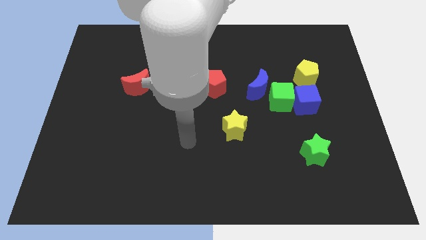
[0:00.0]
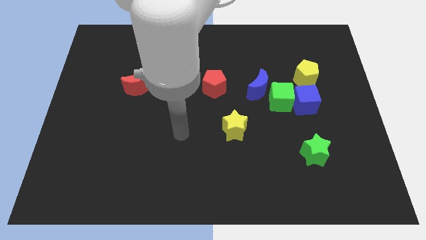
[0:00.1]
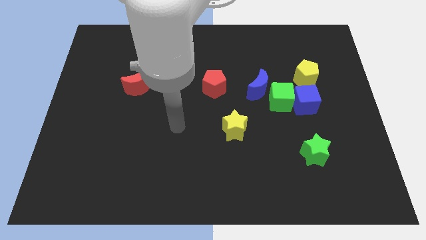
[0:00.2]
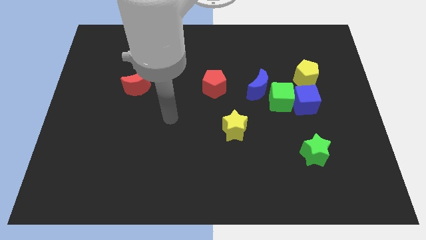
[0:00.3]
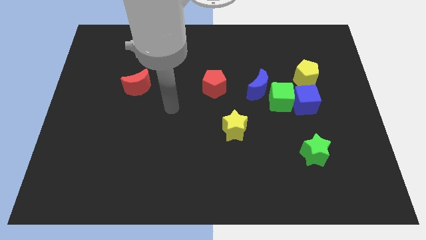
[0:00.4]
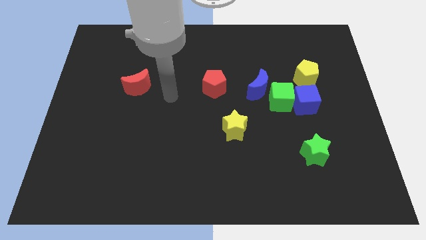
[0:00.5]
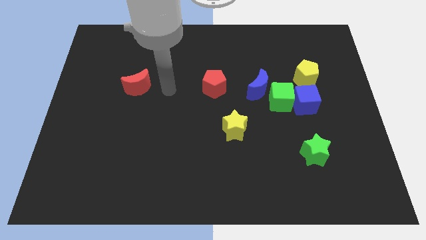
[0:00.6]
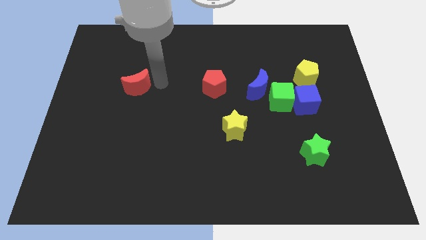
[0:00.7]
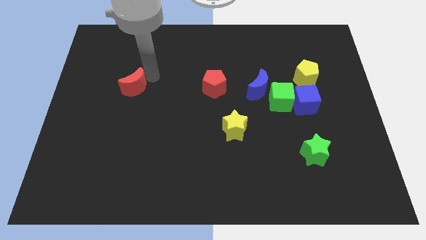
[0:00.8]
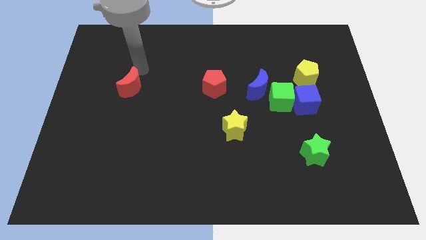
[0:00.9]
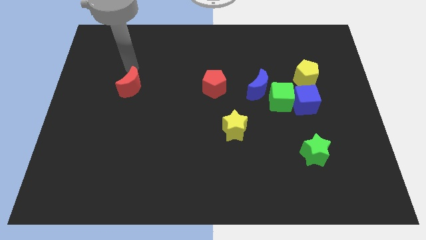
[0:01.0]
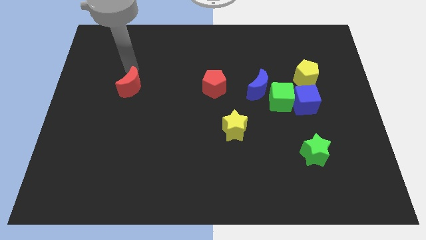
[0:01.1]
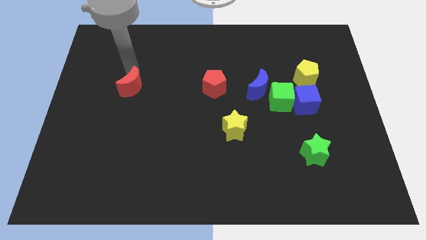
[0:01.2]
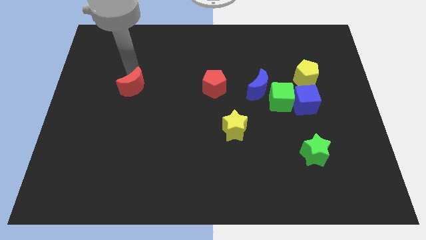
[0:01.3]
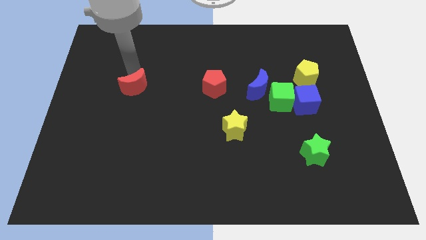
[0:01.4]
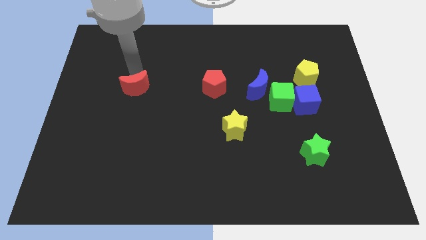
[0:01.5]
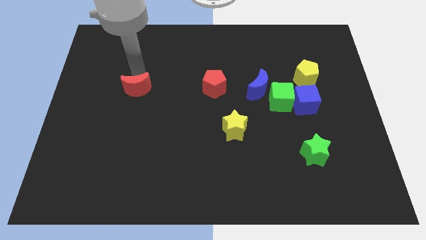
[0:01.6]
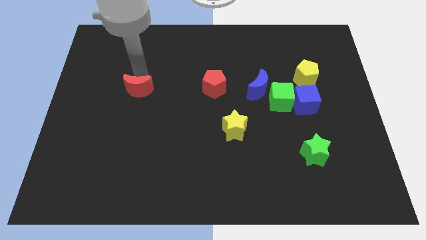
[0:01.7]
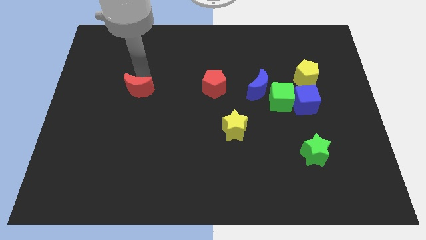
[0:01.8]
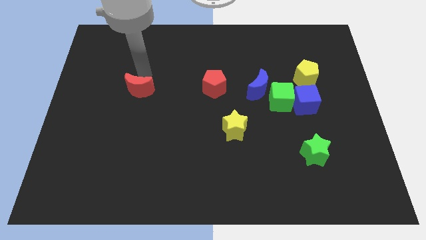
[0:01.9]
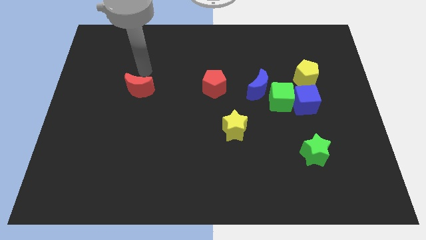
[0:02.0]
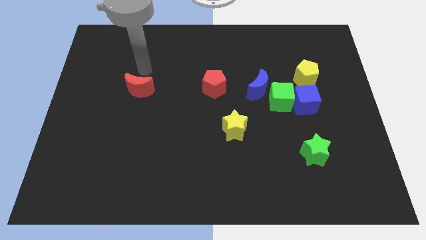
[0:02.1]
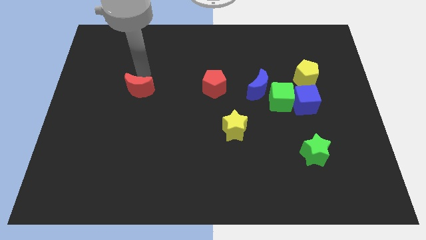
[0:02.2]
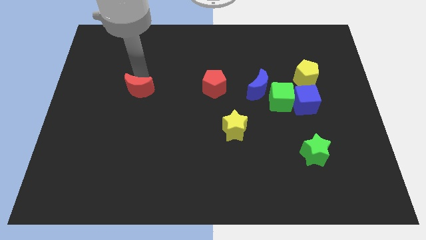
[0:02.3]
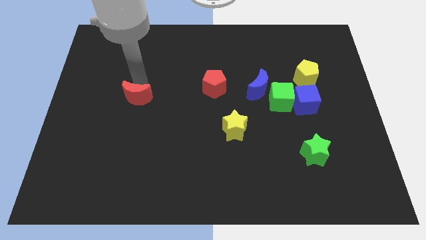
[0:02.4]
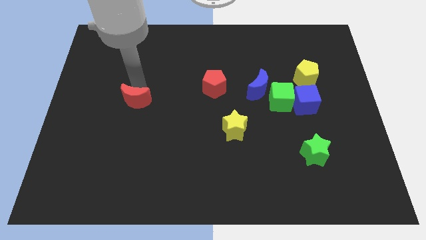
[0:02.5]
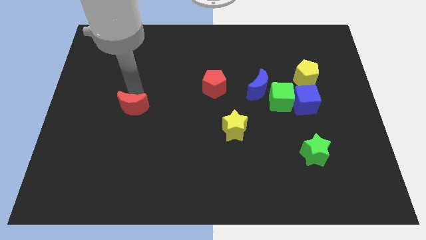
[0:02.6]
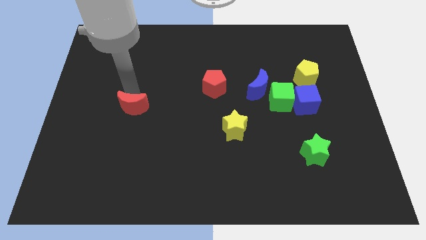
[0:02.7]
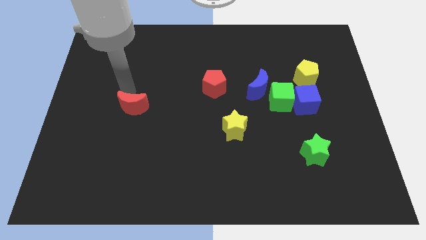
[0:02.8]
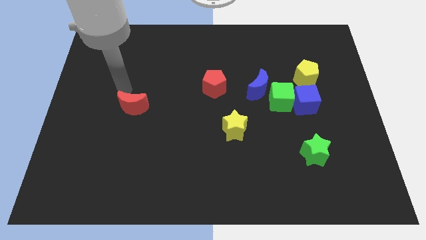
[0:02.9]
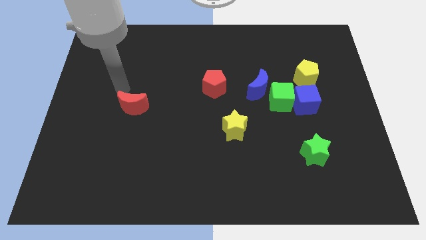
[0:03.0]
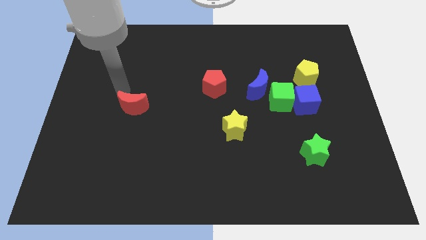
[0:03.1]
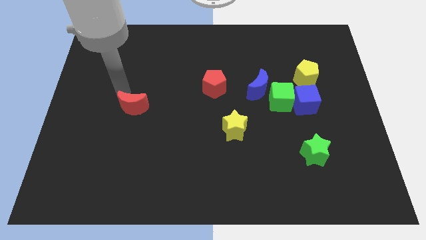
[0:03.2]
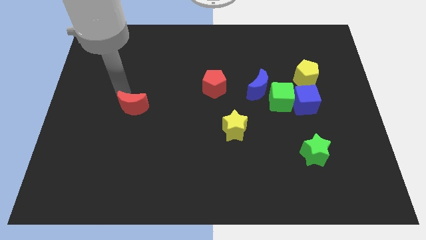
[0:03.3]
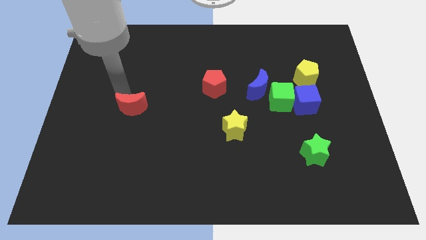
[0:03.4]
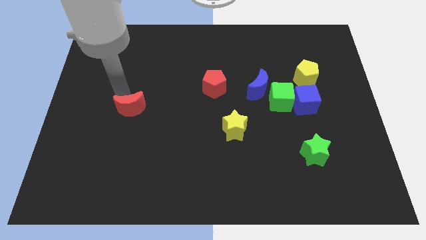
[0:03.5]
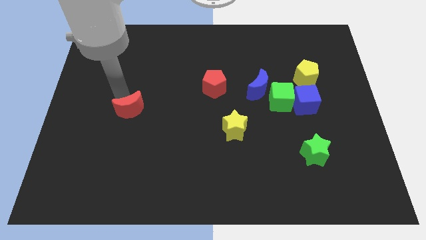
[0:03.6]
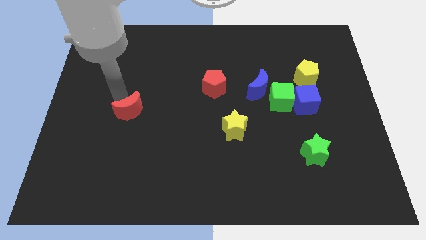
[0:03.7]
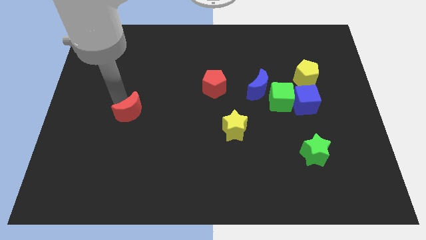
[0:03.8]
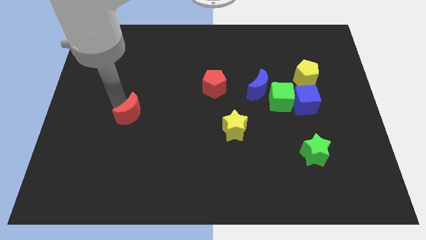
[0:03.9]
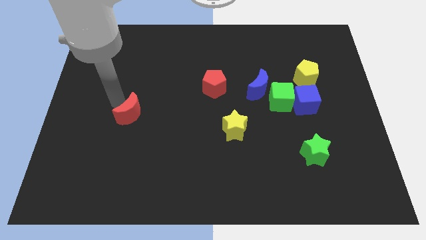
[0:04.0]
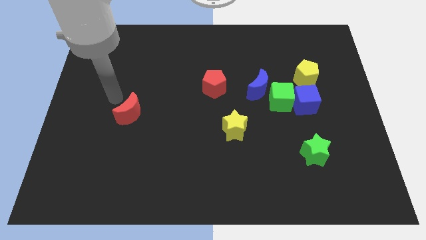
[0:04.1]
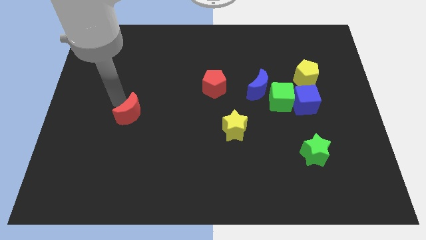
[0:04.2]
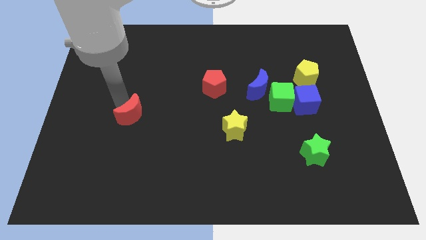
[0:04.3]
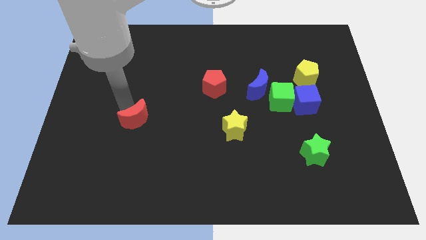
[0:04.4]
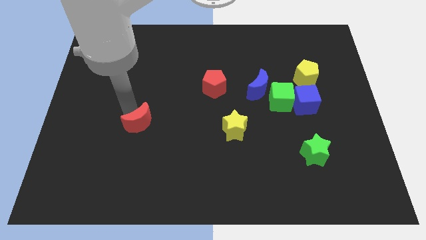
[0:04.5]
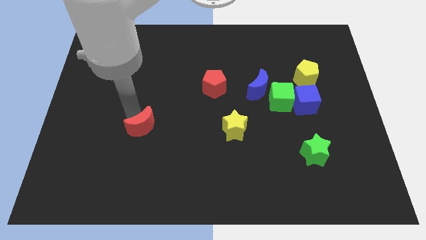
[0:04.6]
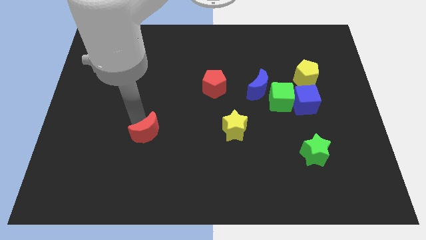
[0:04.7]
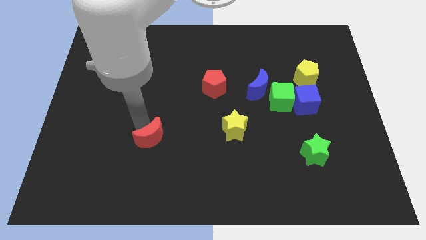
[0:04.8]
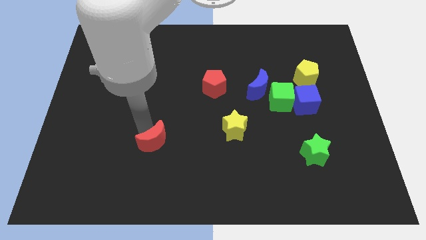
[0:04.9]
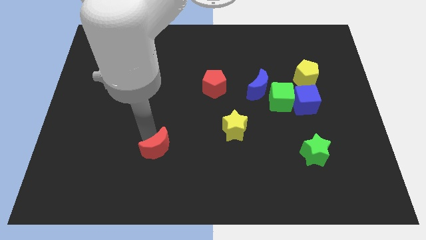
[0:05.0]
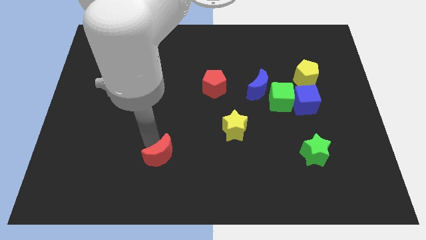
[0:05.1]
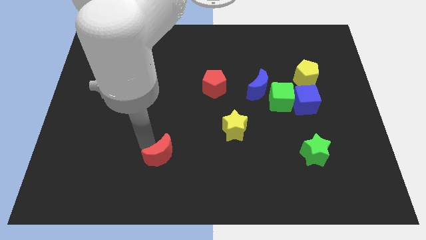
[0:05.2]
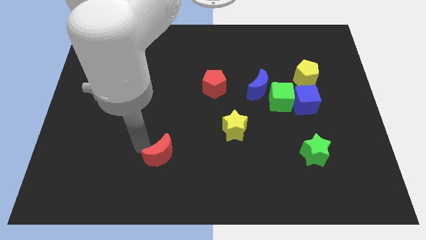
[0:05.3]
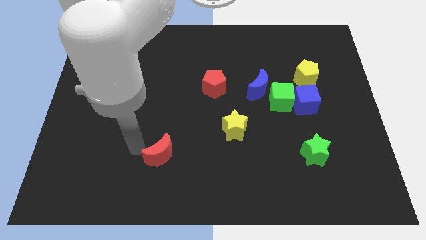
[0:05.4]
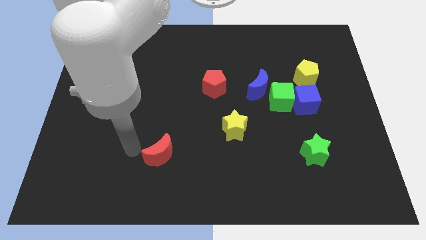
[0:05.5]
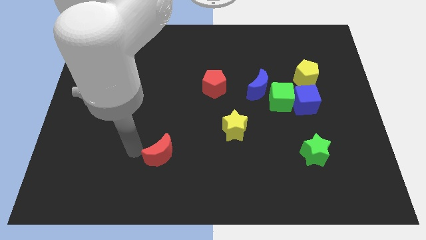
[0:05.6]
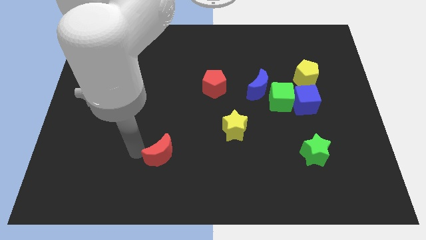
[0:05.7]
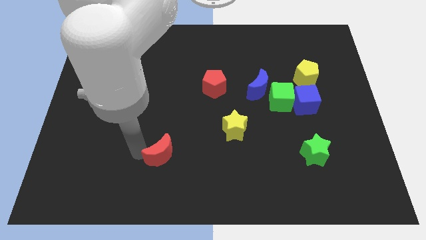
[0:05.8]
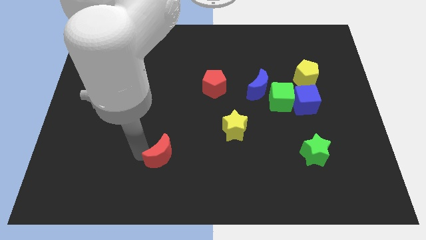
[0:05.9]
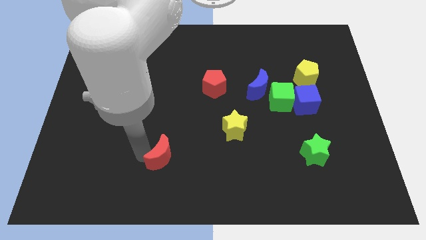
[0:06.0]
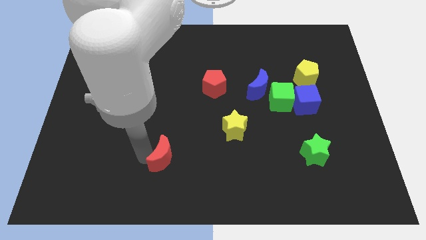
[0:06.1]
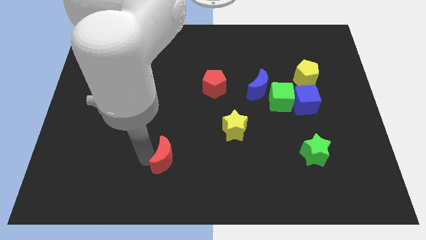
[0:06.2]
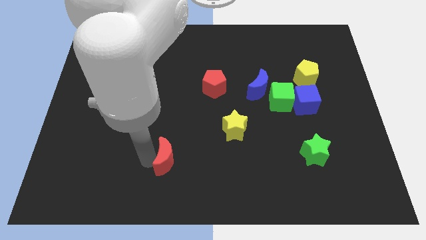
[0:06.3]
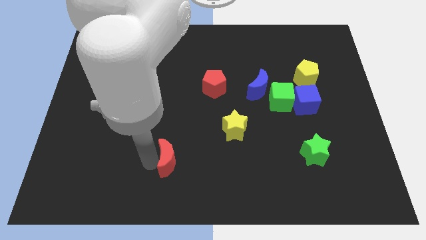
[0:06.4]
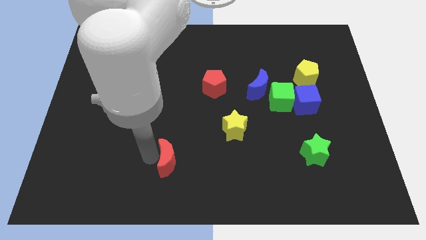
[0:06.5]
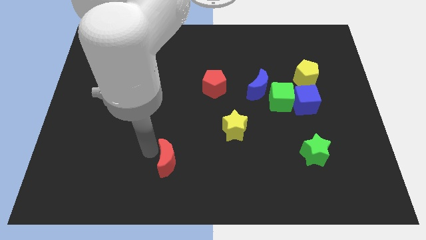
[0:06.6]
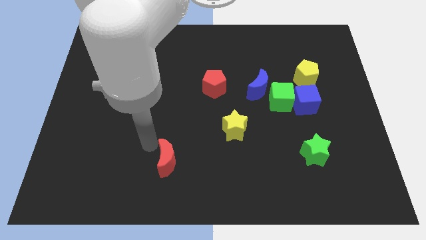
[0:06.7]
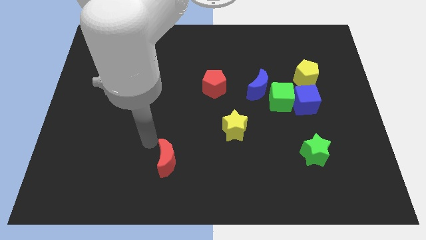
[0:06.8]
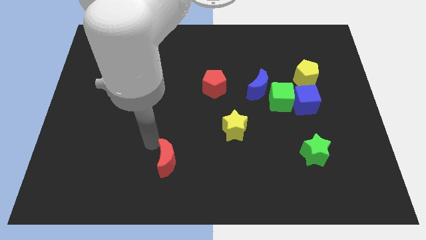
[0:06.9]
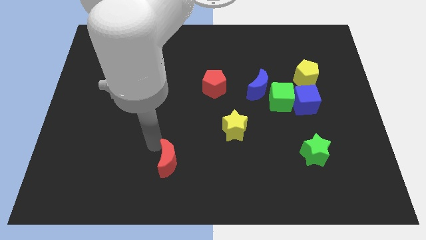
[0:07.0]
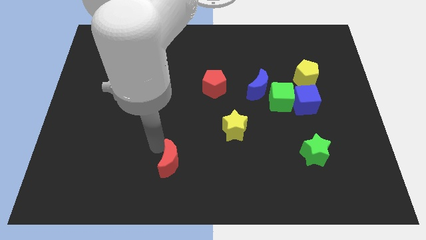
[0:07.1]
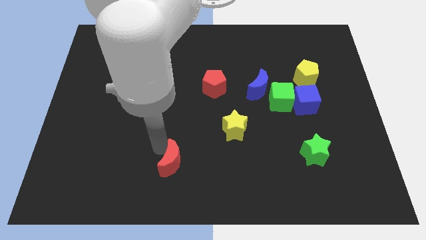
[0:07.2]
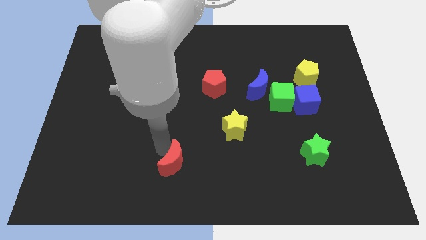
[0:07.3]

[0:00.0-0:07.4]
slide the red moon to the bottom side
